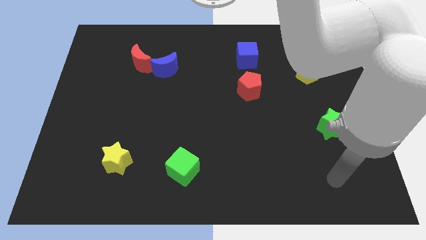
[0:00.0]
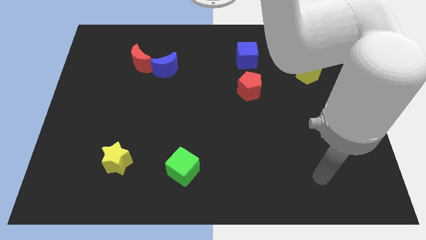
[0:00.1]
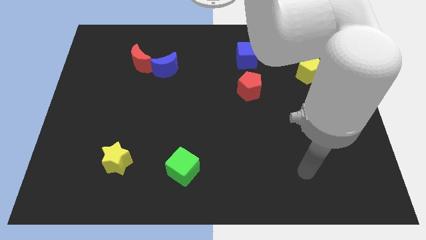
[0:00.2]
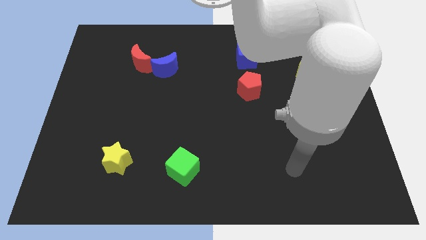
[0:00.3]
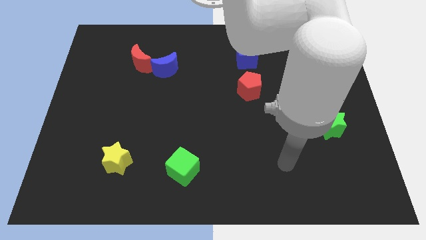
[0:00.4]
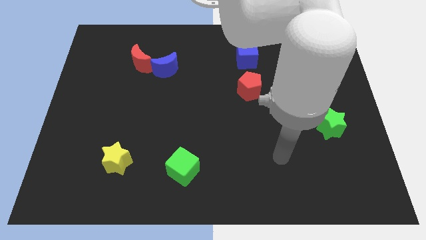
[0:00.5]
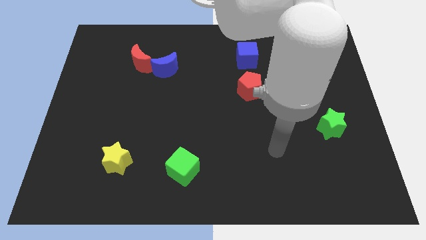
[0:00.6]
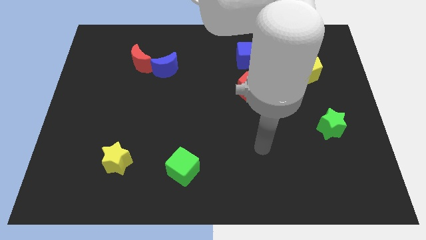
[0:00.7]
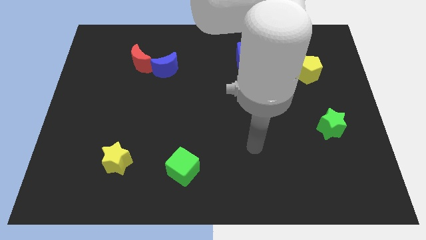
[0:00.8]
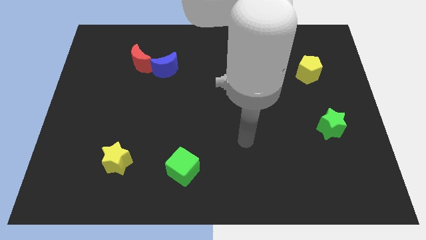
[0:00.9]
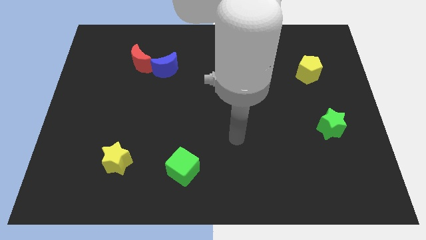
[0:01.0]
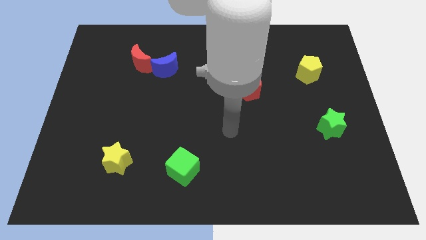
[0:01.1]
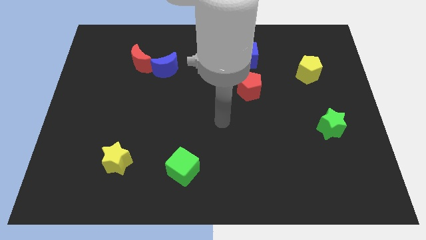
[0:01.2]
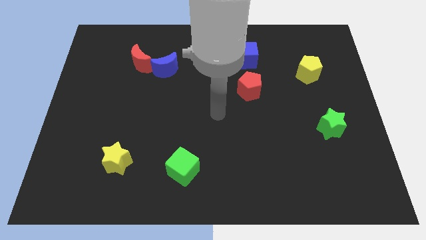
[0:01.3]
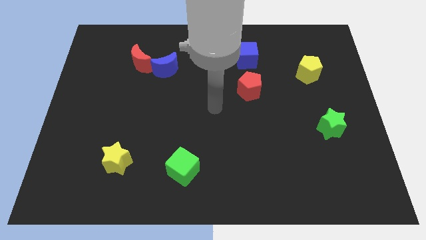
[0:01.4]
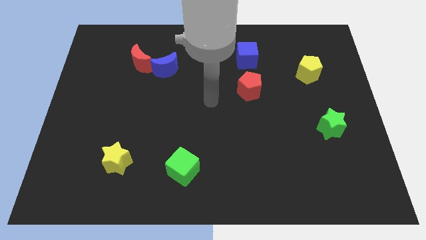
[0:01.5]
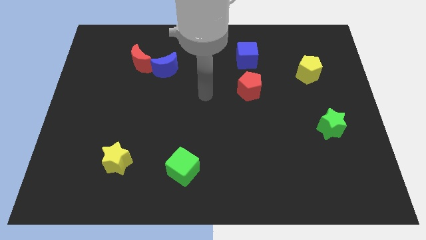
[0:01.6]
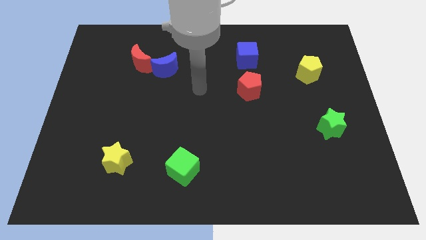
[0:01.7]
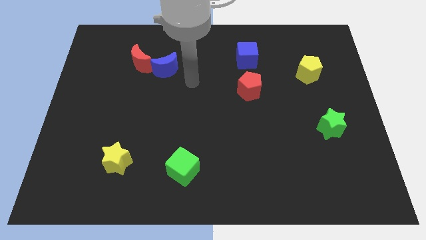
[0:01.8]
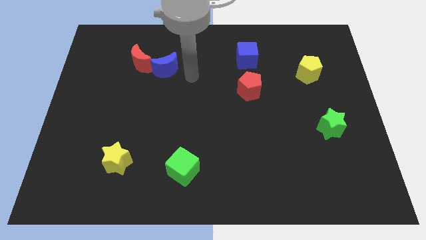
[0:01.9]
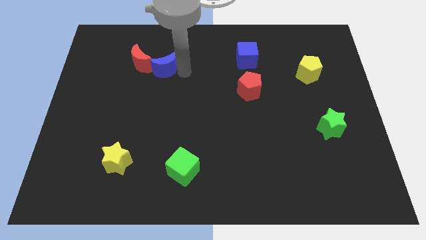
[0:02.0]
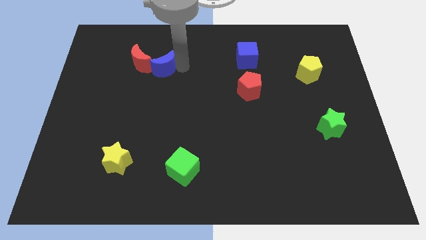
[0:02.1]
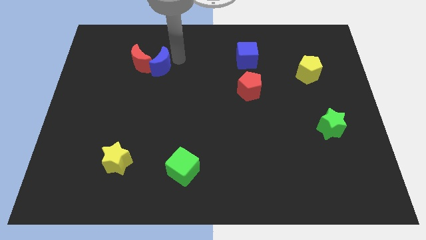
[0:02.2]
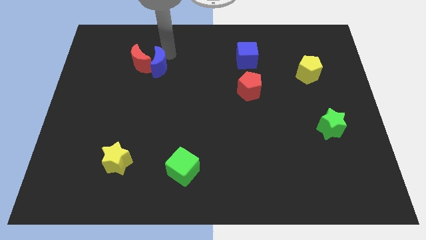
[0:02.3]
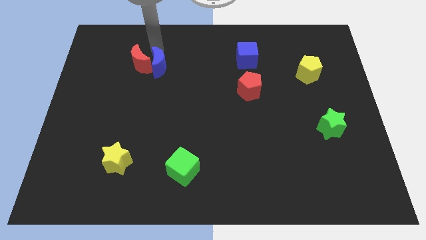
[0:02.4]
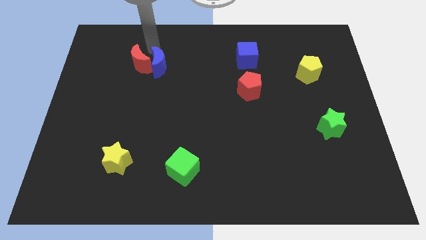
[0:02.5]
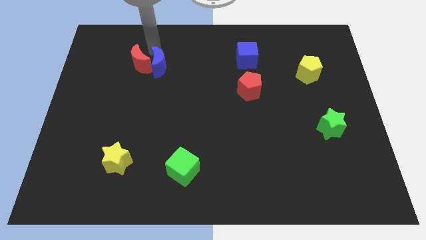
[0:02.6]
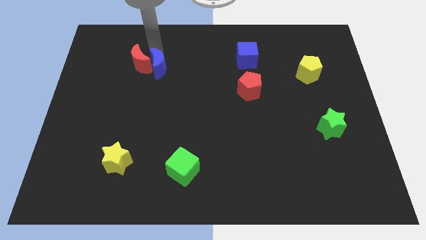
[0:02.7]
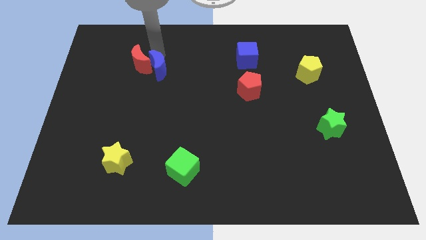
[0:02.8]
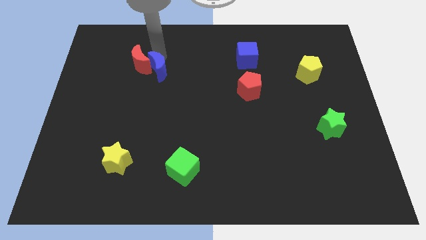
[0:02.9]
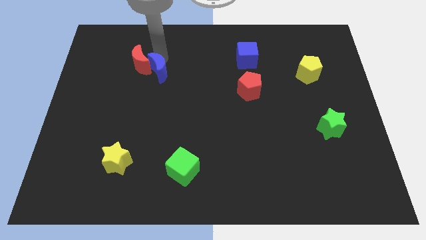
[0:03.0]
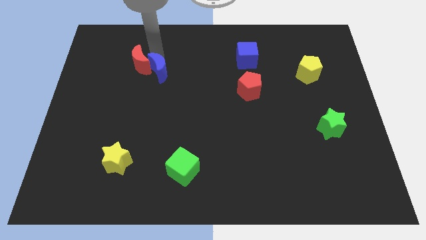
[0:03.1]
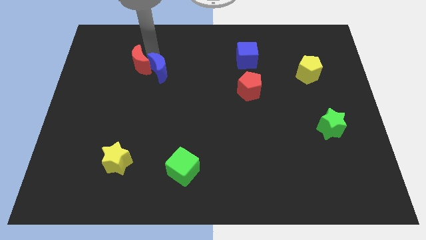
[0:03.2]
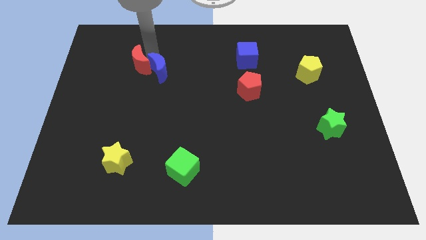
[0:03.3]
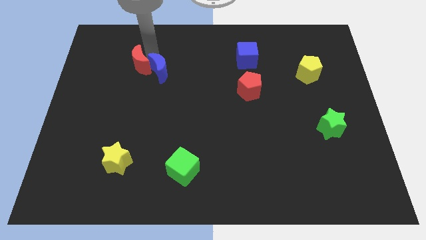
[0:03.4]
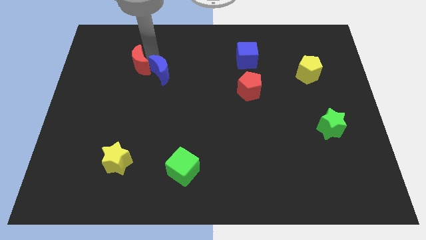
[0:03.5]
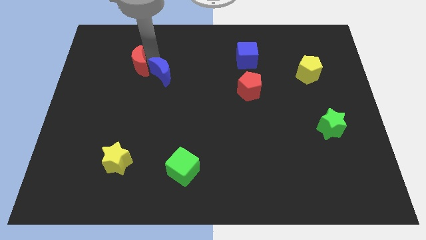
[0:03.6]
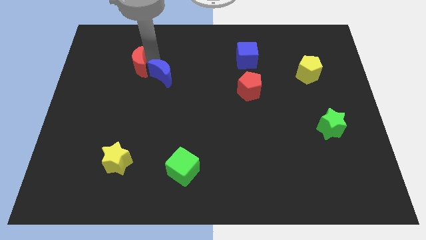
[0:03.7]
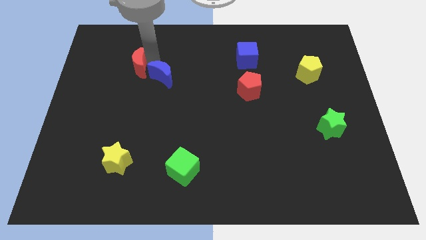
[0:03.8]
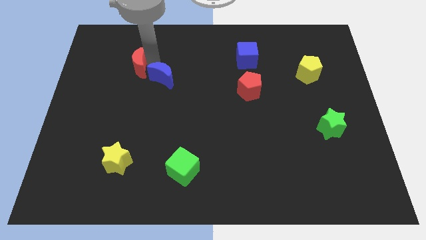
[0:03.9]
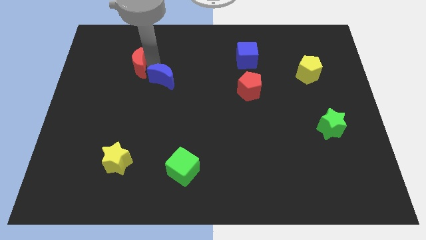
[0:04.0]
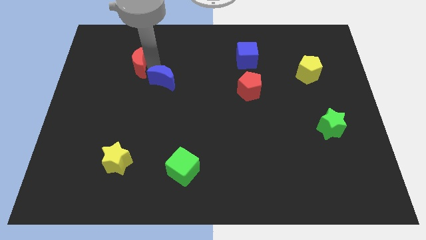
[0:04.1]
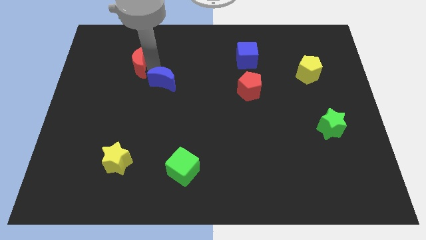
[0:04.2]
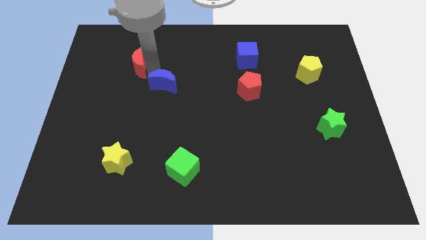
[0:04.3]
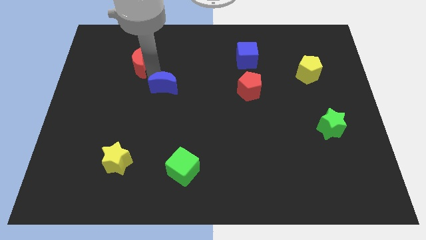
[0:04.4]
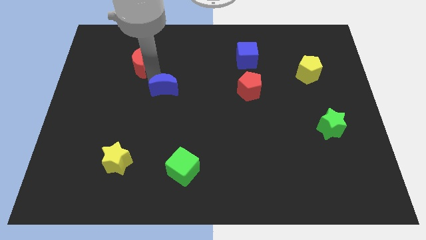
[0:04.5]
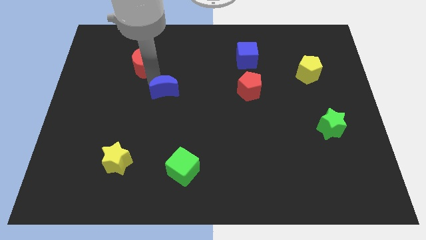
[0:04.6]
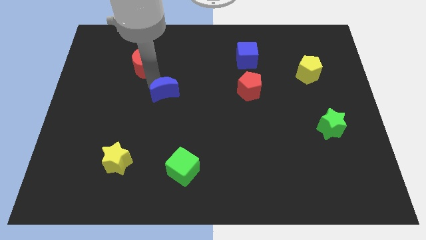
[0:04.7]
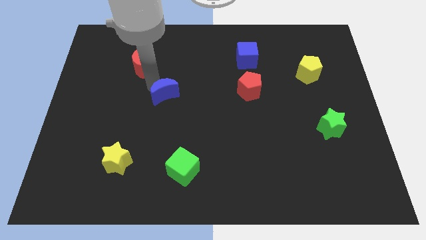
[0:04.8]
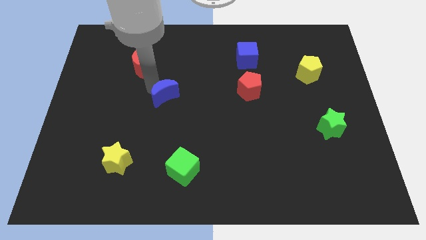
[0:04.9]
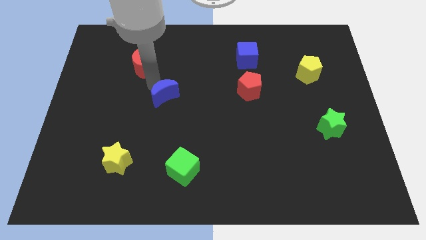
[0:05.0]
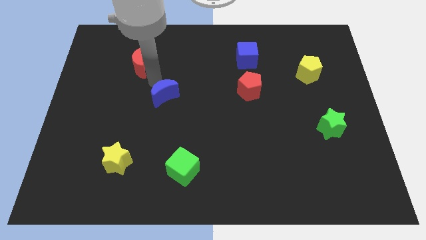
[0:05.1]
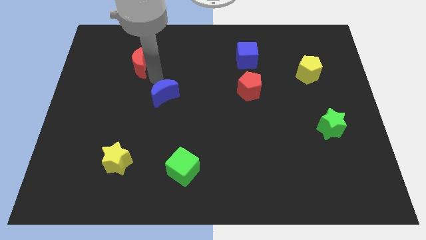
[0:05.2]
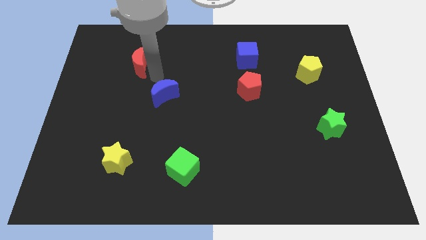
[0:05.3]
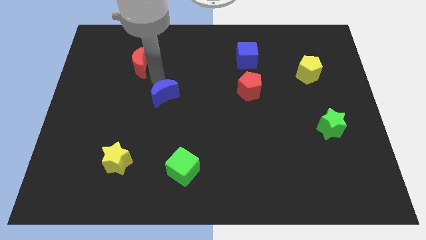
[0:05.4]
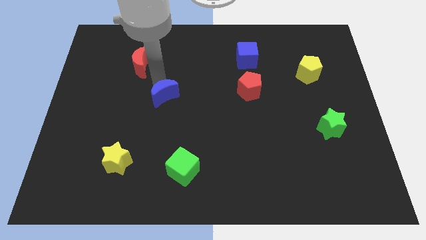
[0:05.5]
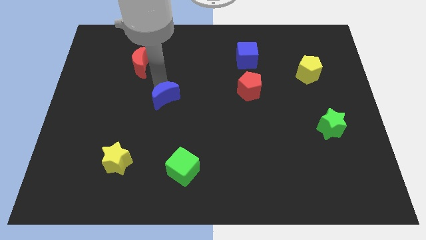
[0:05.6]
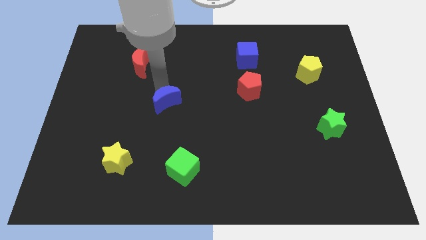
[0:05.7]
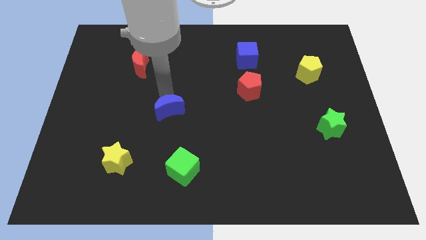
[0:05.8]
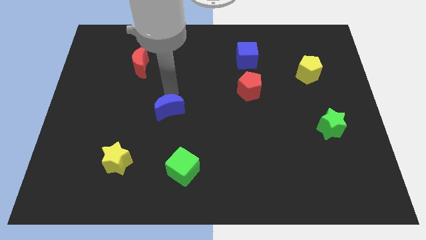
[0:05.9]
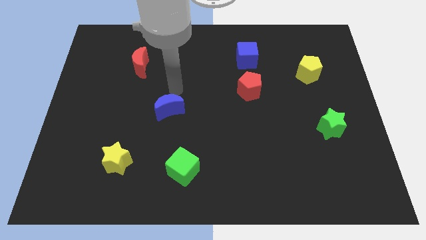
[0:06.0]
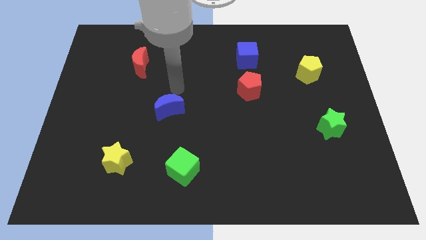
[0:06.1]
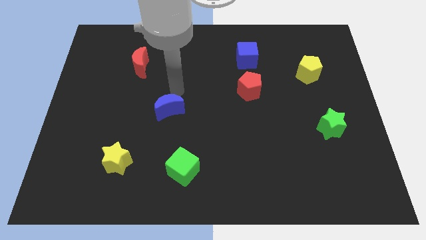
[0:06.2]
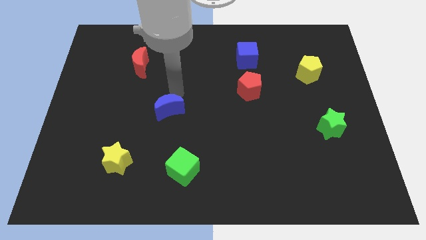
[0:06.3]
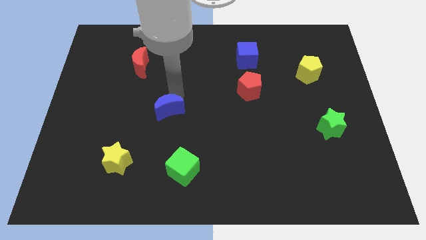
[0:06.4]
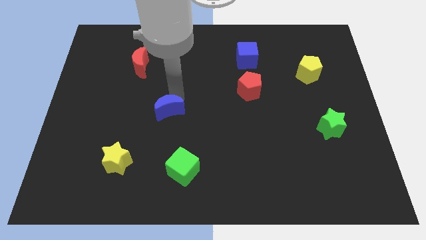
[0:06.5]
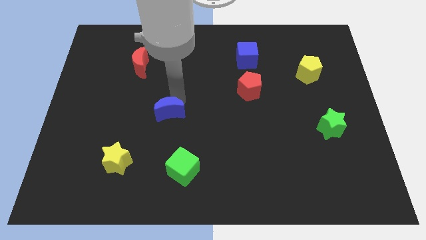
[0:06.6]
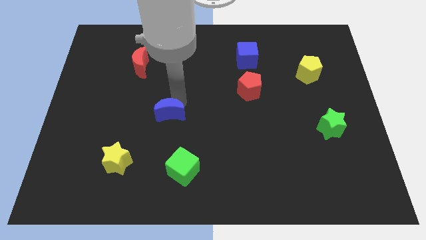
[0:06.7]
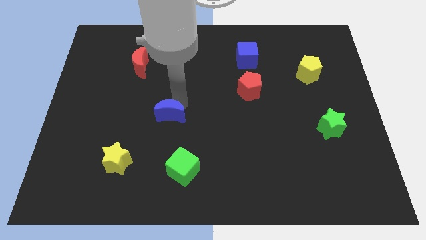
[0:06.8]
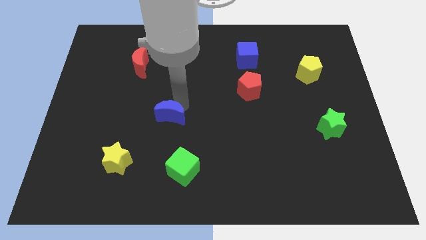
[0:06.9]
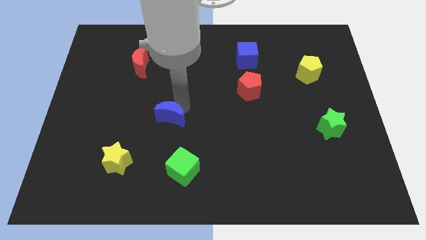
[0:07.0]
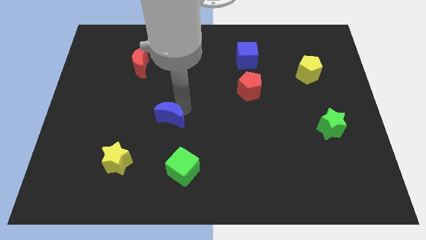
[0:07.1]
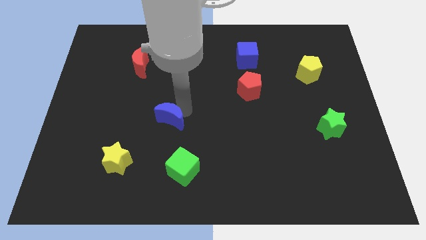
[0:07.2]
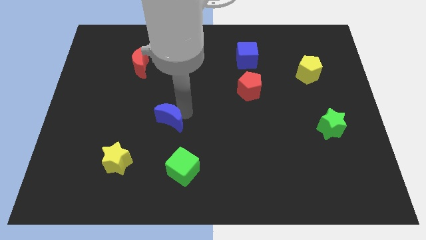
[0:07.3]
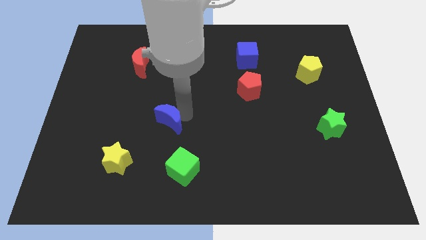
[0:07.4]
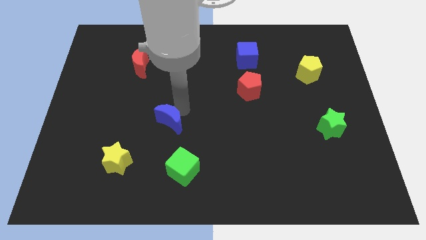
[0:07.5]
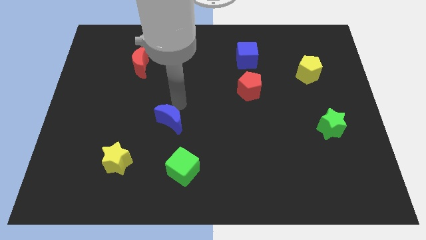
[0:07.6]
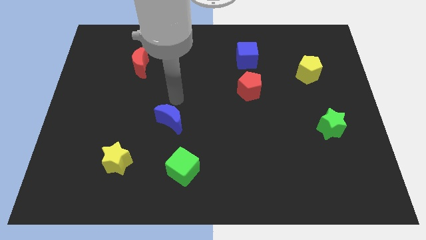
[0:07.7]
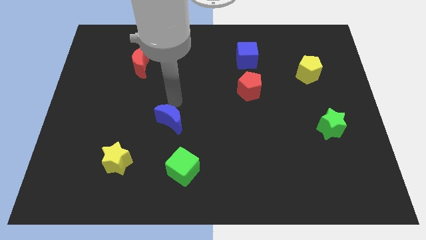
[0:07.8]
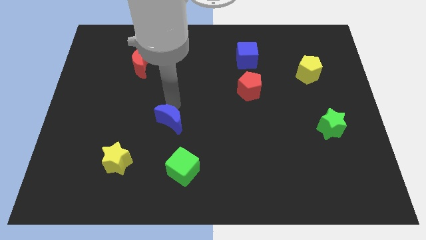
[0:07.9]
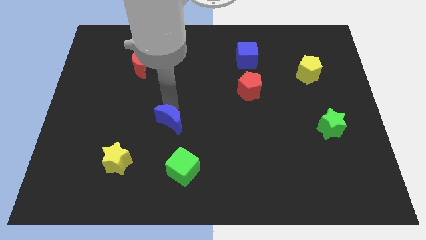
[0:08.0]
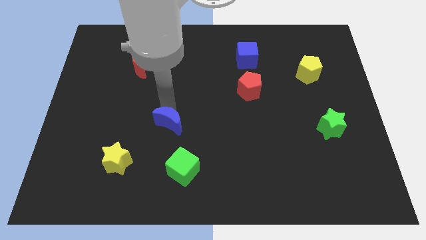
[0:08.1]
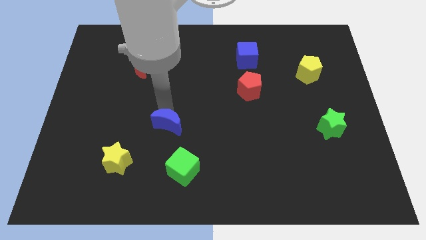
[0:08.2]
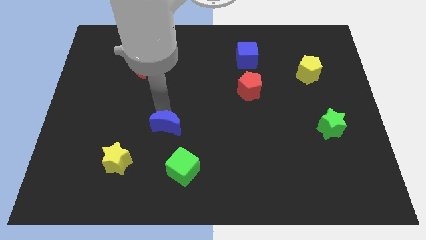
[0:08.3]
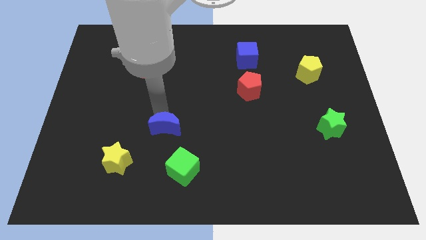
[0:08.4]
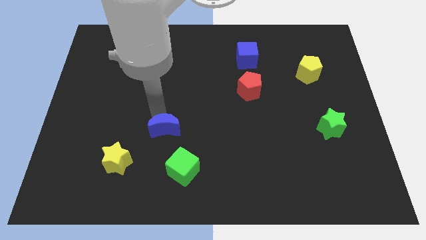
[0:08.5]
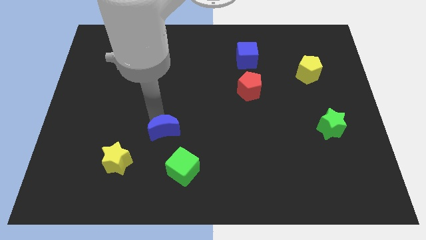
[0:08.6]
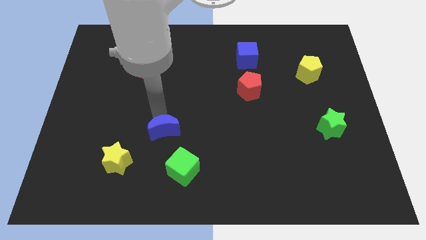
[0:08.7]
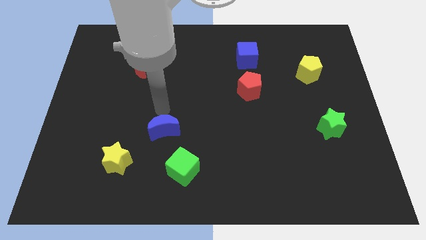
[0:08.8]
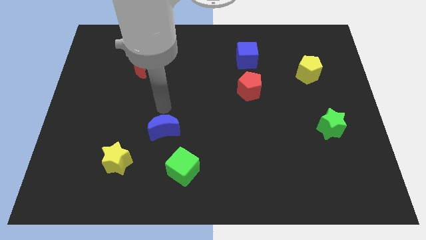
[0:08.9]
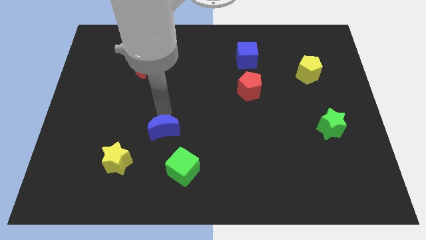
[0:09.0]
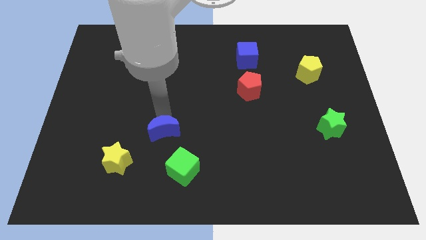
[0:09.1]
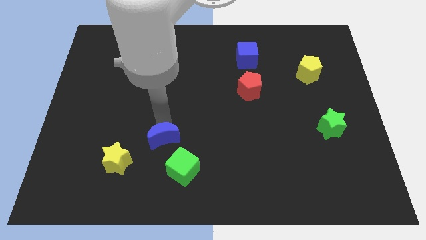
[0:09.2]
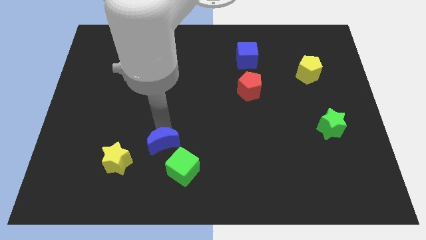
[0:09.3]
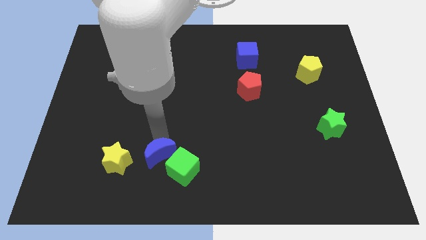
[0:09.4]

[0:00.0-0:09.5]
move the blue moon close to the green cube
